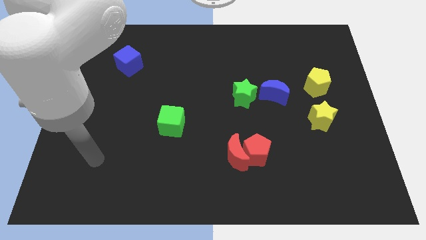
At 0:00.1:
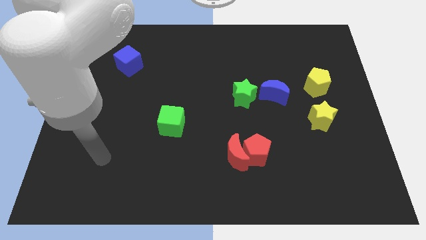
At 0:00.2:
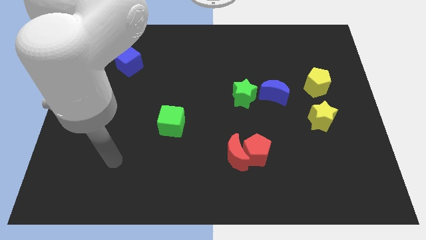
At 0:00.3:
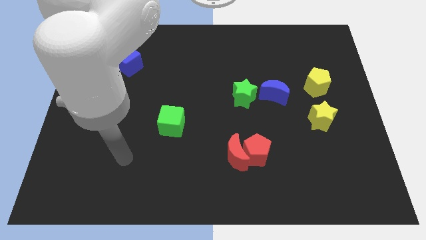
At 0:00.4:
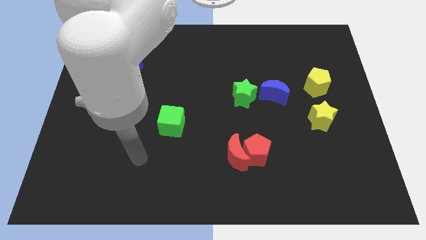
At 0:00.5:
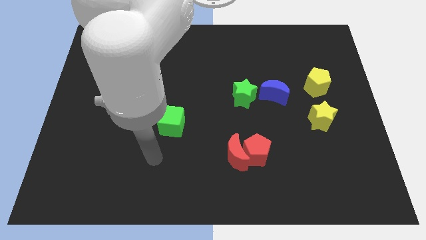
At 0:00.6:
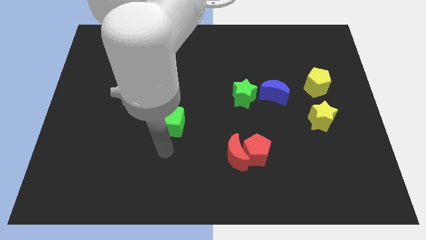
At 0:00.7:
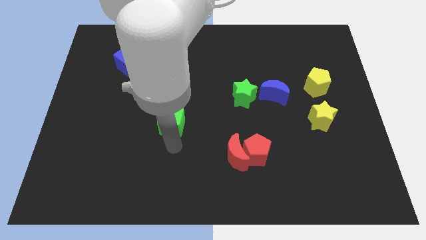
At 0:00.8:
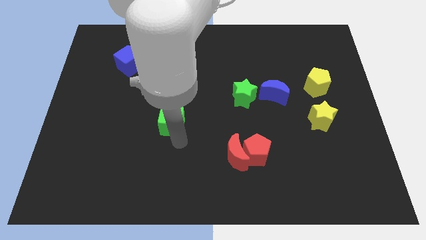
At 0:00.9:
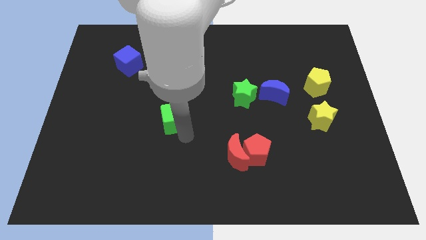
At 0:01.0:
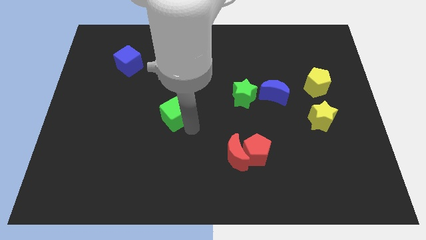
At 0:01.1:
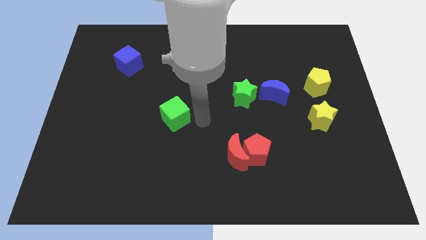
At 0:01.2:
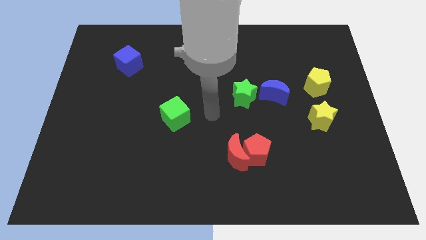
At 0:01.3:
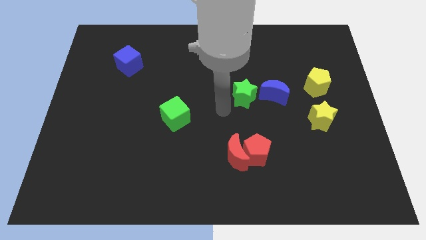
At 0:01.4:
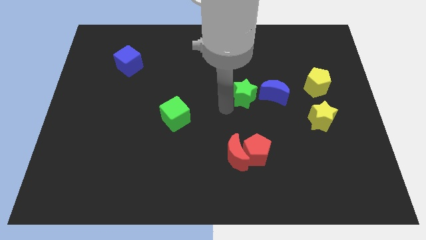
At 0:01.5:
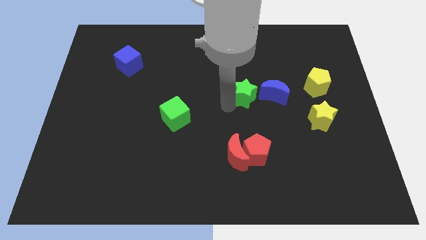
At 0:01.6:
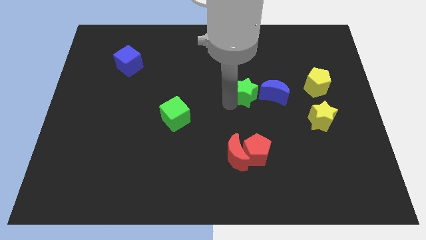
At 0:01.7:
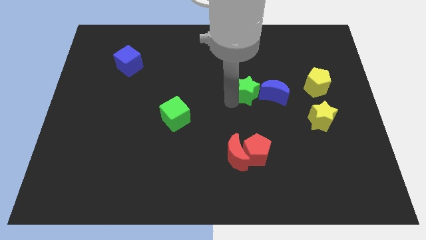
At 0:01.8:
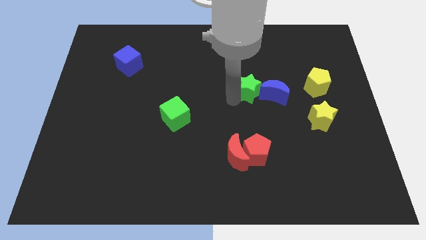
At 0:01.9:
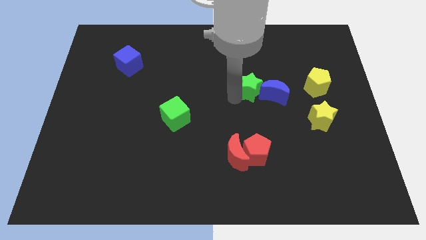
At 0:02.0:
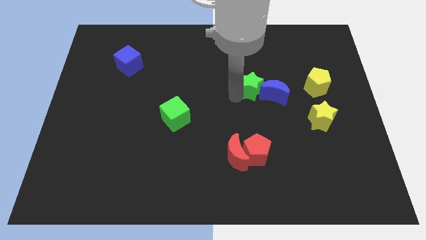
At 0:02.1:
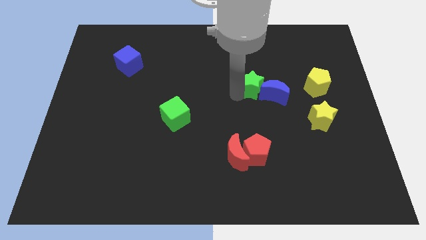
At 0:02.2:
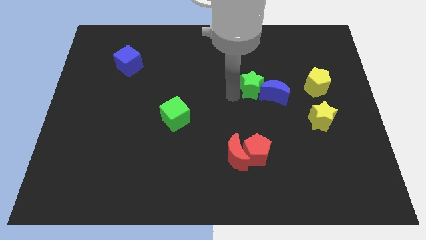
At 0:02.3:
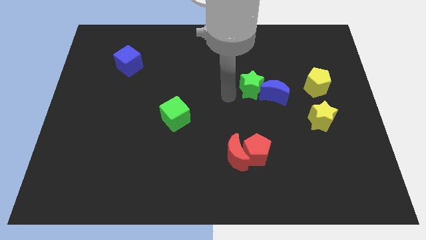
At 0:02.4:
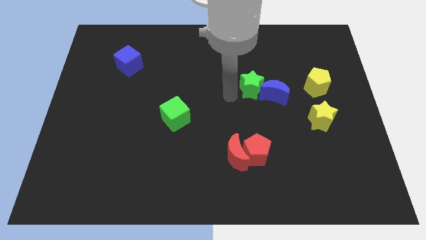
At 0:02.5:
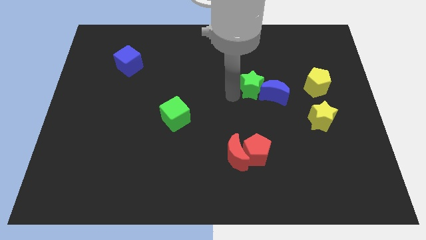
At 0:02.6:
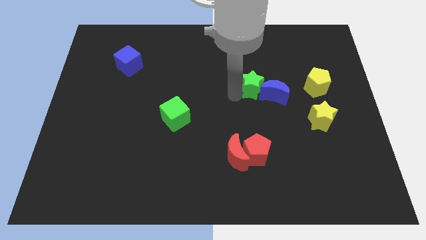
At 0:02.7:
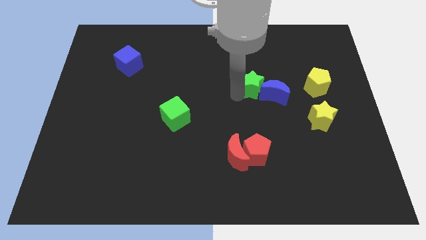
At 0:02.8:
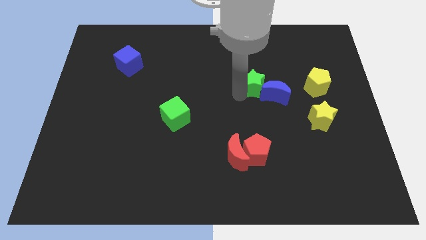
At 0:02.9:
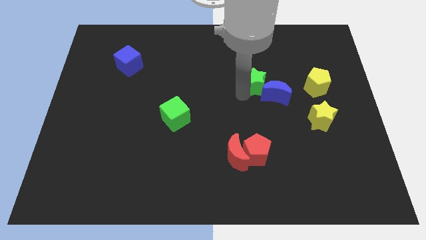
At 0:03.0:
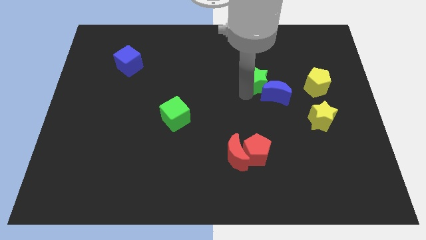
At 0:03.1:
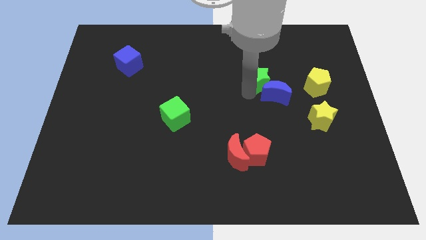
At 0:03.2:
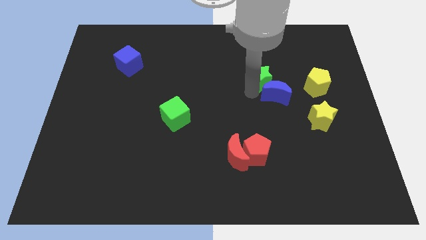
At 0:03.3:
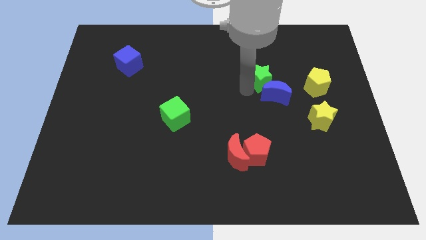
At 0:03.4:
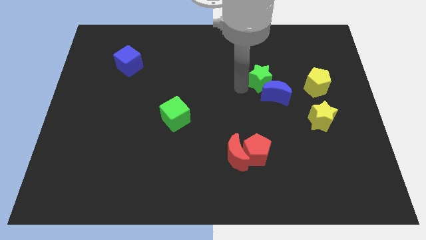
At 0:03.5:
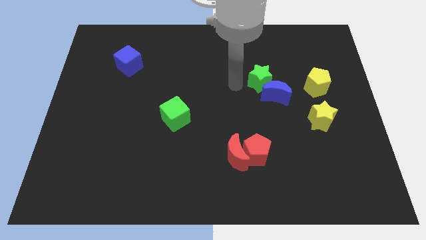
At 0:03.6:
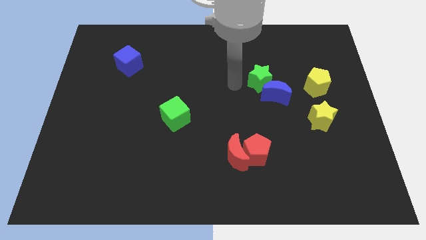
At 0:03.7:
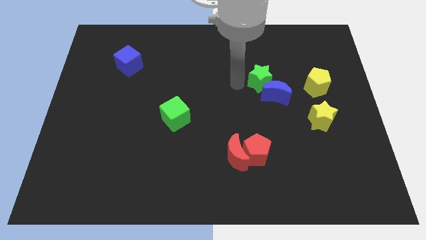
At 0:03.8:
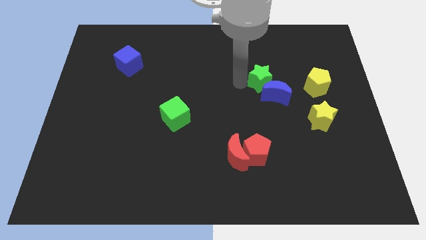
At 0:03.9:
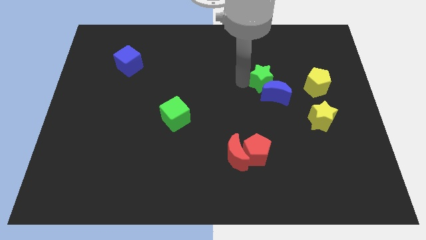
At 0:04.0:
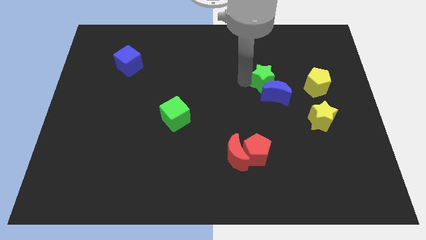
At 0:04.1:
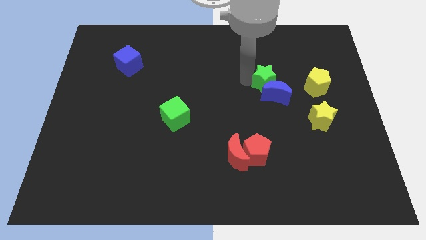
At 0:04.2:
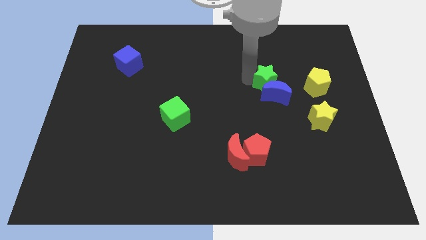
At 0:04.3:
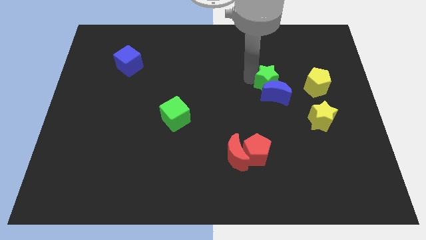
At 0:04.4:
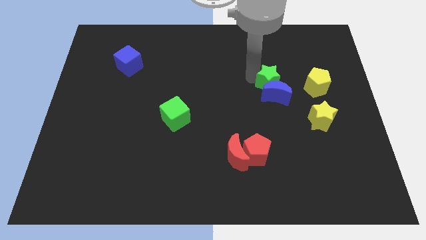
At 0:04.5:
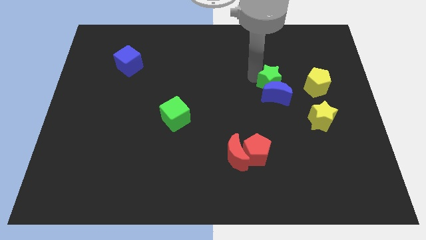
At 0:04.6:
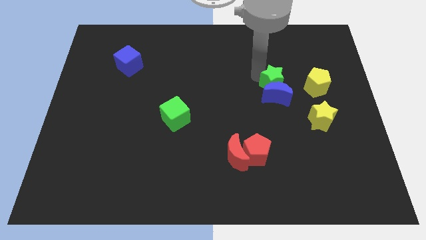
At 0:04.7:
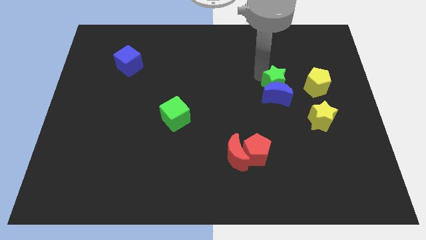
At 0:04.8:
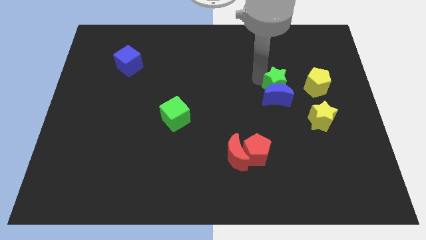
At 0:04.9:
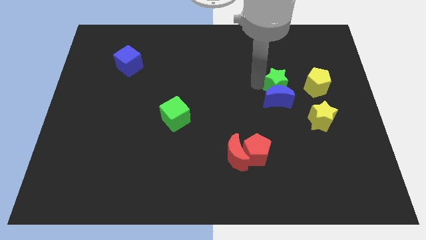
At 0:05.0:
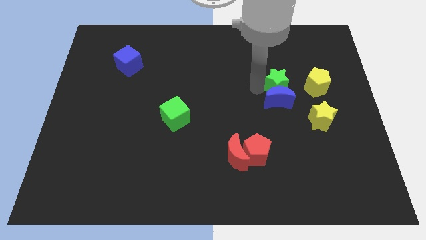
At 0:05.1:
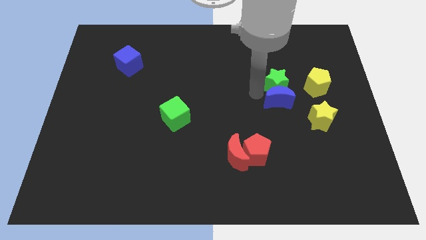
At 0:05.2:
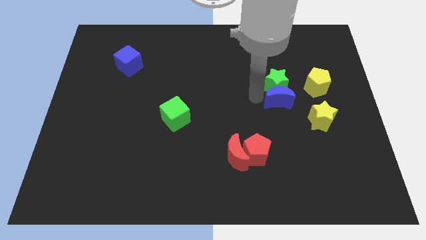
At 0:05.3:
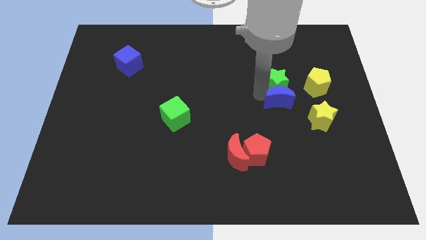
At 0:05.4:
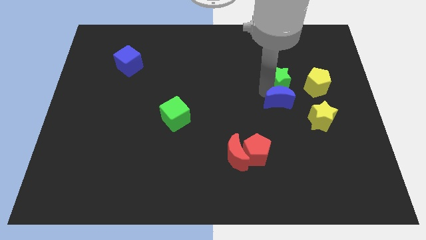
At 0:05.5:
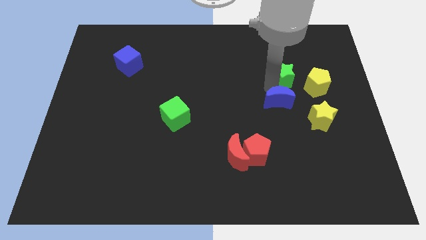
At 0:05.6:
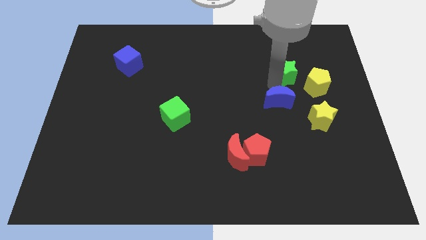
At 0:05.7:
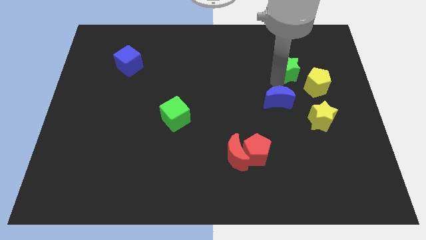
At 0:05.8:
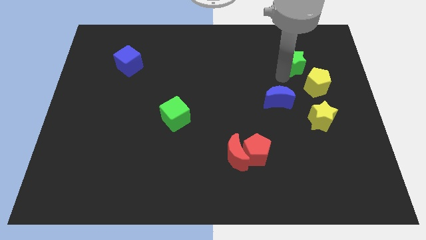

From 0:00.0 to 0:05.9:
slide the green star above the yellow pentagon

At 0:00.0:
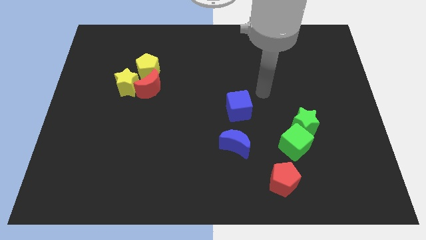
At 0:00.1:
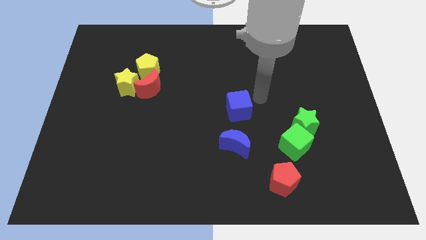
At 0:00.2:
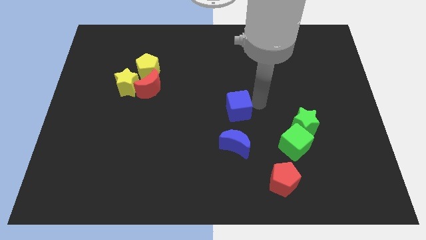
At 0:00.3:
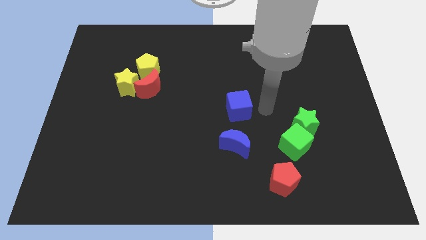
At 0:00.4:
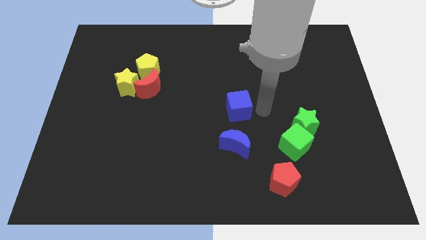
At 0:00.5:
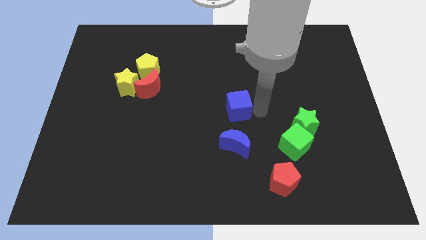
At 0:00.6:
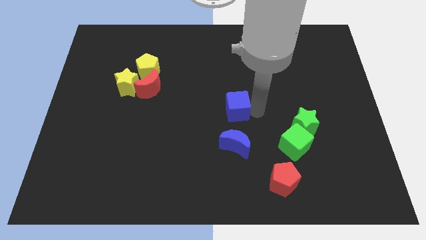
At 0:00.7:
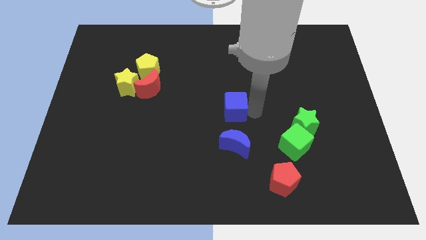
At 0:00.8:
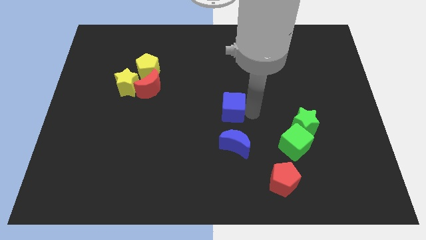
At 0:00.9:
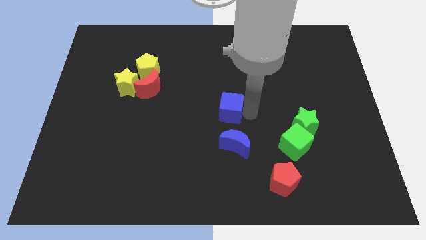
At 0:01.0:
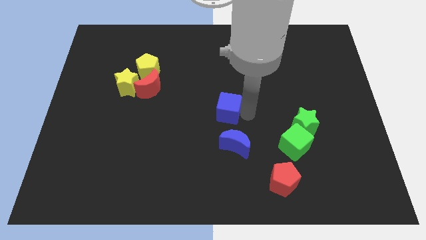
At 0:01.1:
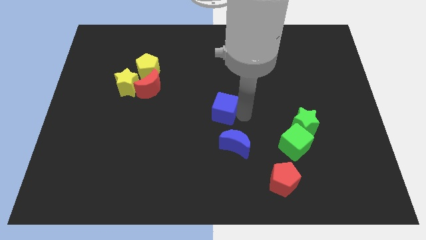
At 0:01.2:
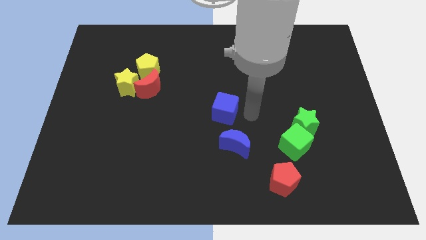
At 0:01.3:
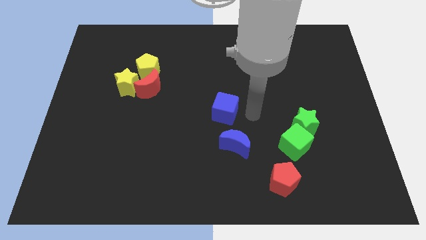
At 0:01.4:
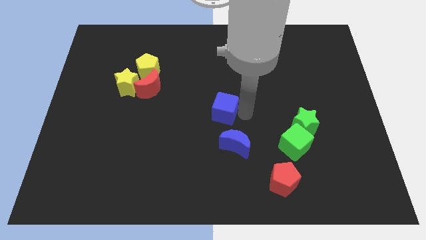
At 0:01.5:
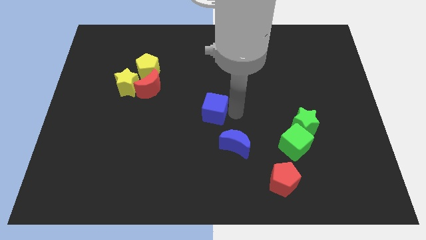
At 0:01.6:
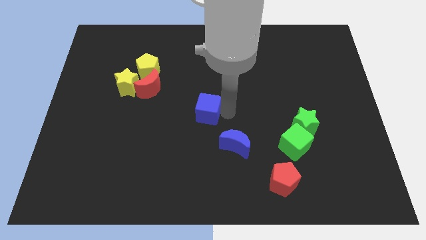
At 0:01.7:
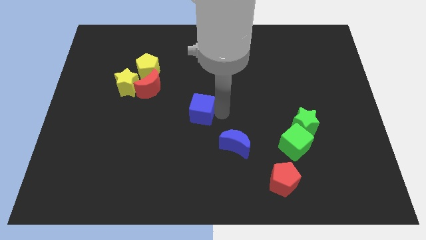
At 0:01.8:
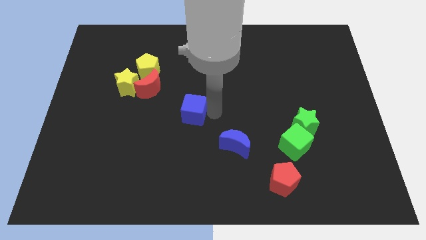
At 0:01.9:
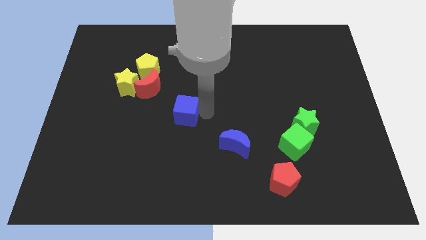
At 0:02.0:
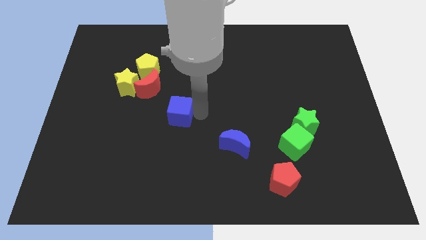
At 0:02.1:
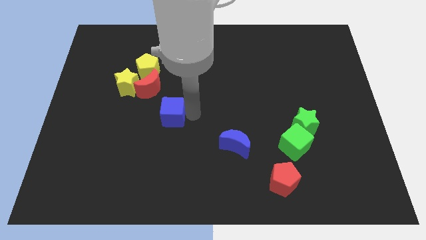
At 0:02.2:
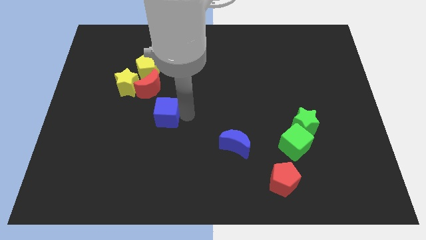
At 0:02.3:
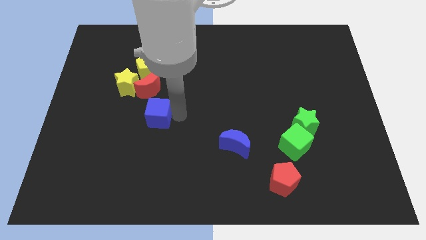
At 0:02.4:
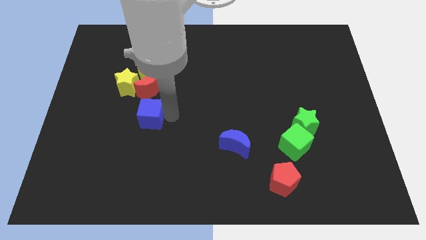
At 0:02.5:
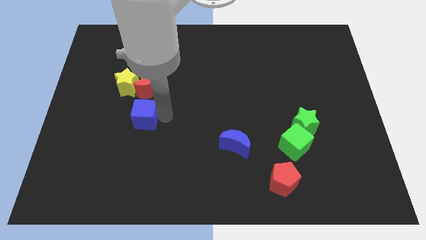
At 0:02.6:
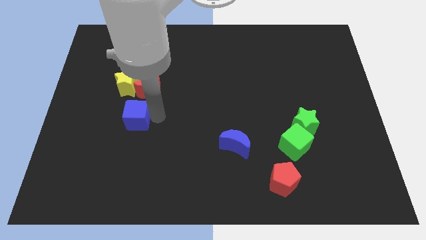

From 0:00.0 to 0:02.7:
move the blue cube to the bottom of the yellow star
